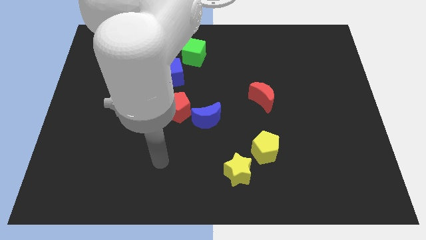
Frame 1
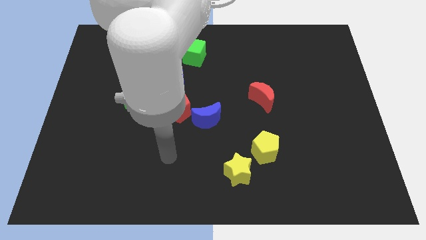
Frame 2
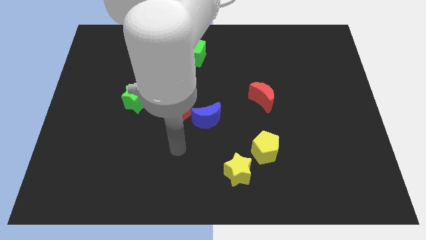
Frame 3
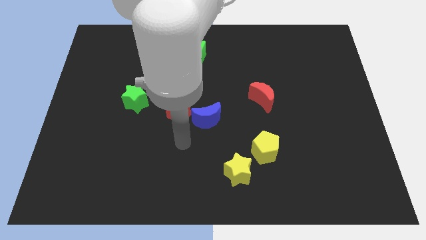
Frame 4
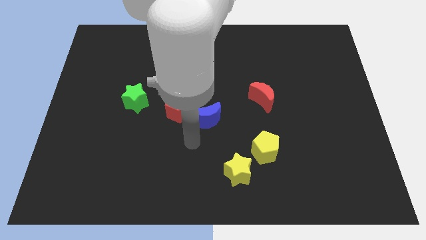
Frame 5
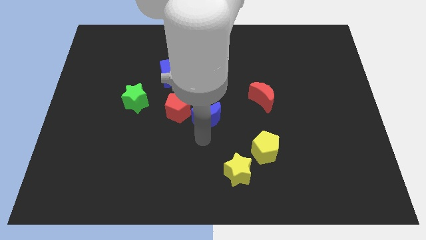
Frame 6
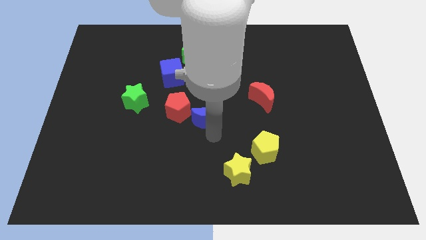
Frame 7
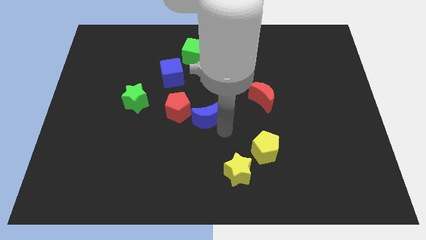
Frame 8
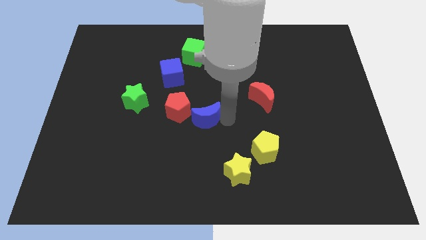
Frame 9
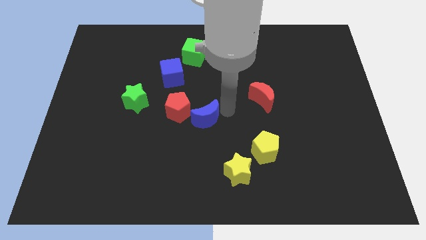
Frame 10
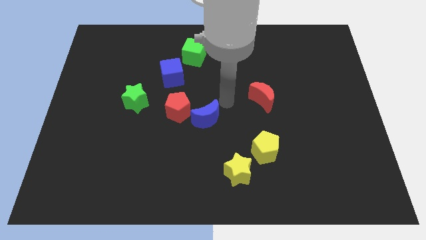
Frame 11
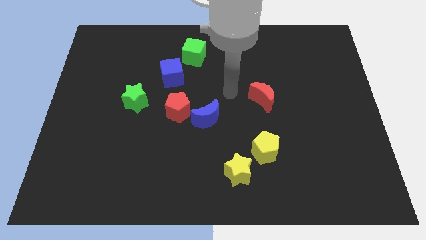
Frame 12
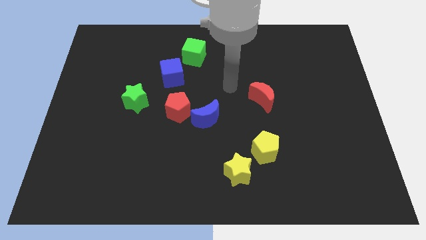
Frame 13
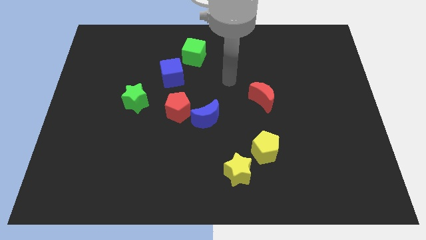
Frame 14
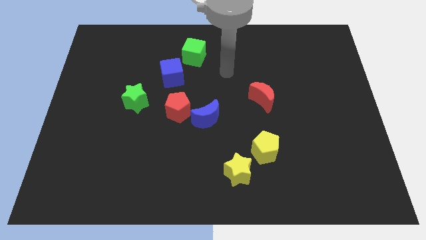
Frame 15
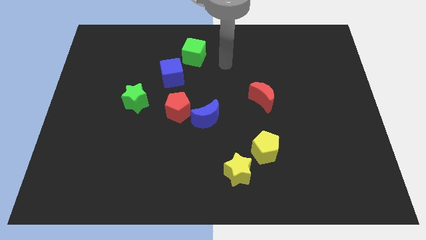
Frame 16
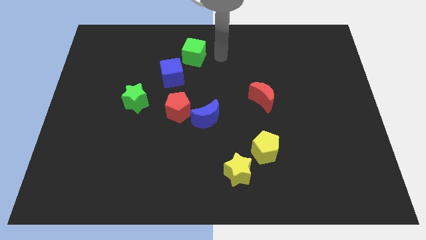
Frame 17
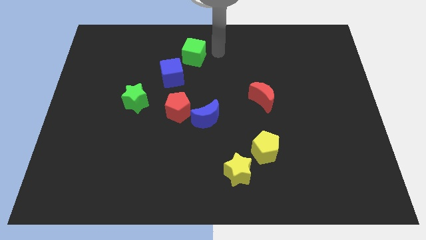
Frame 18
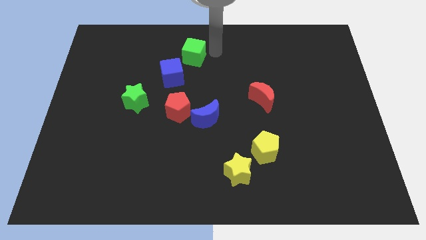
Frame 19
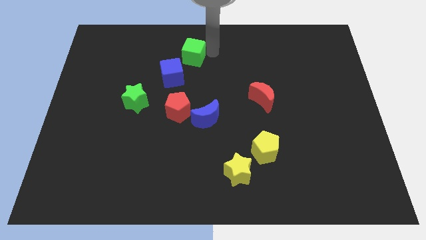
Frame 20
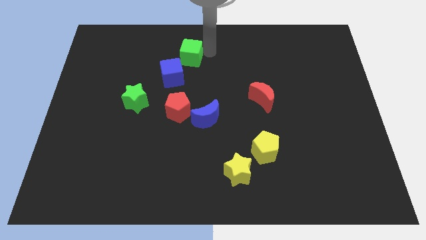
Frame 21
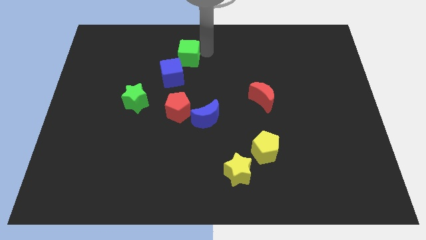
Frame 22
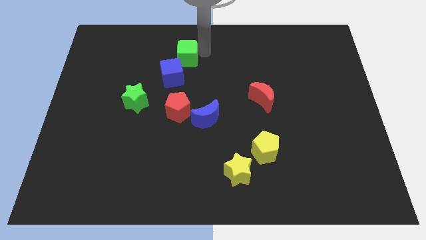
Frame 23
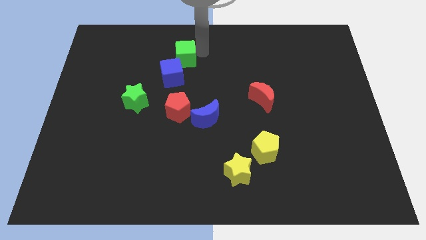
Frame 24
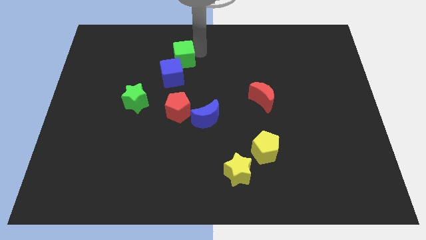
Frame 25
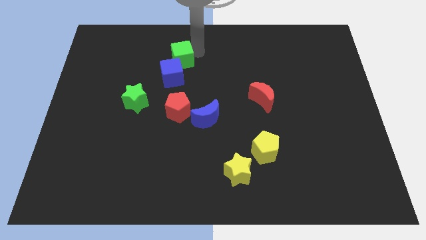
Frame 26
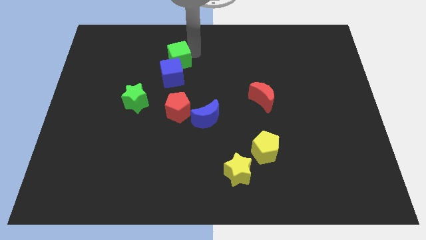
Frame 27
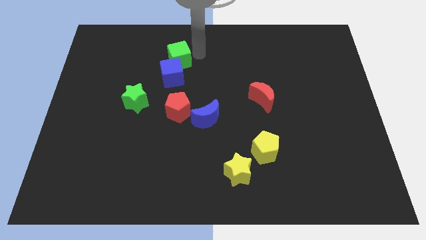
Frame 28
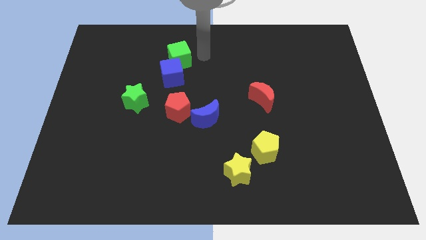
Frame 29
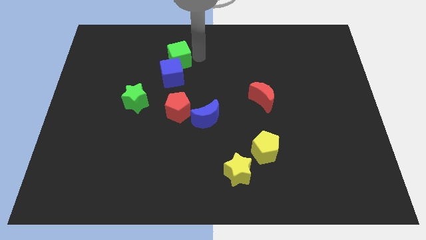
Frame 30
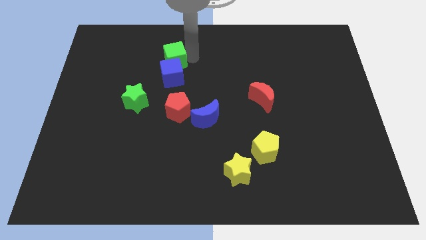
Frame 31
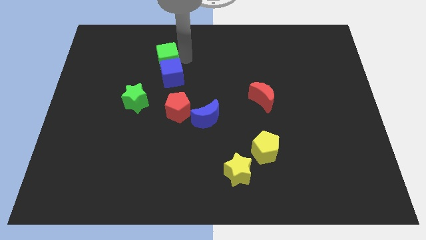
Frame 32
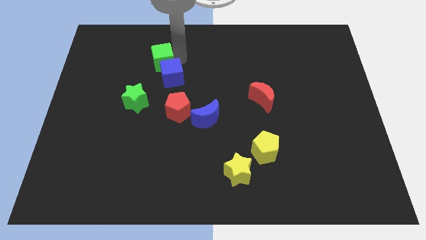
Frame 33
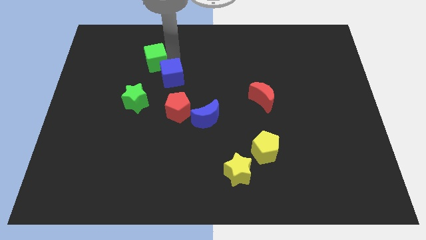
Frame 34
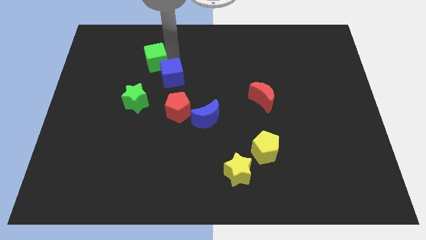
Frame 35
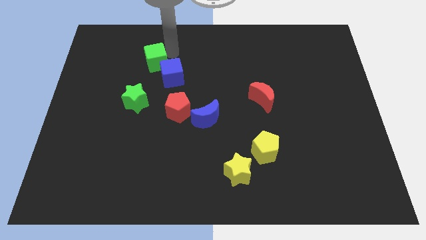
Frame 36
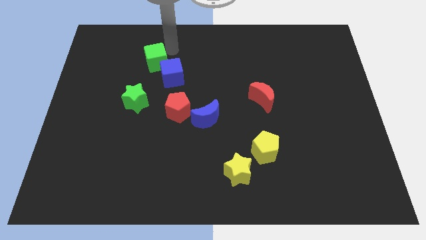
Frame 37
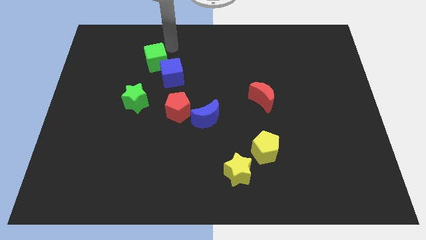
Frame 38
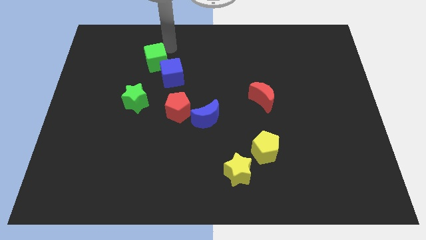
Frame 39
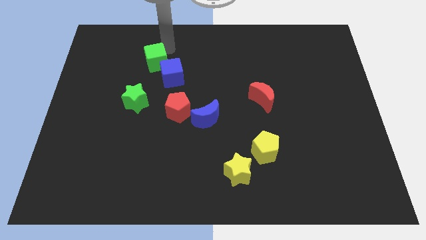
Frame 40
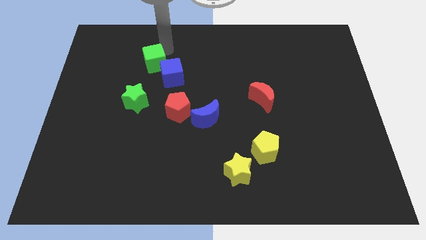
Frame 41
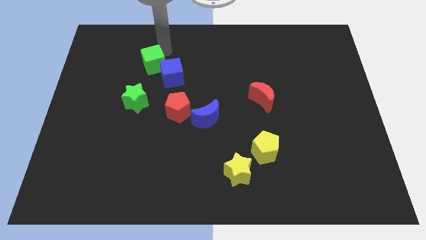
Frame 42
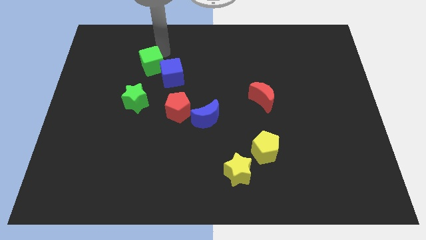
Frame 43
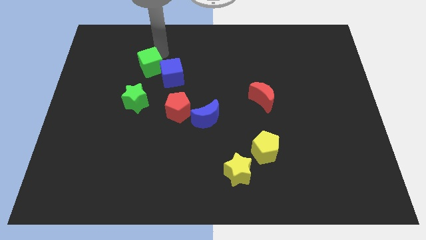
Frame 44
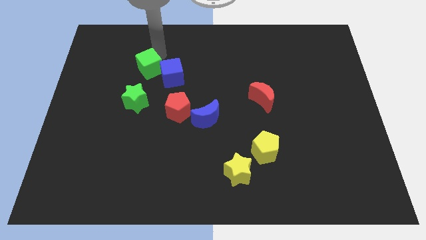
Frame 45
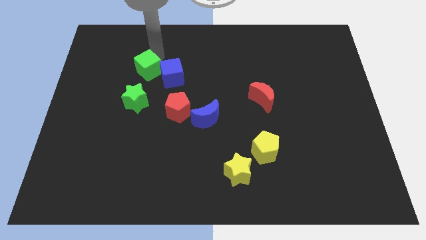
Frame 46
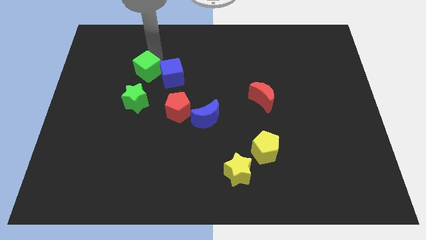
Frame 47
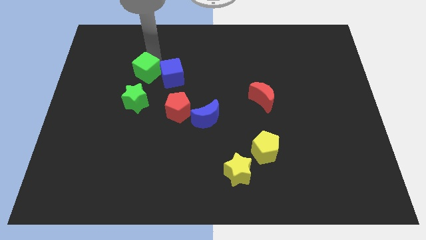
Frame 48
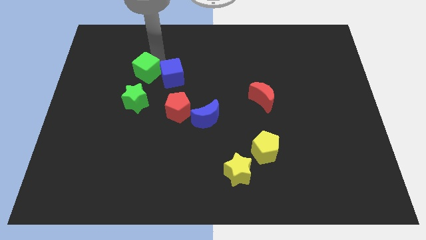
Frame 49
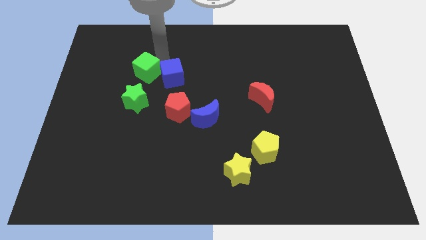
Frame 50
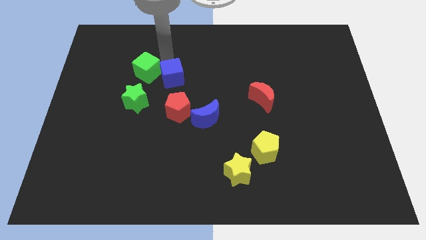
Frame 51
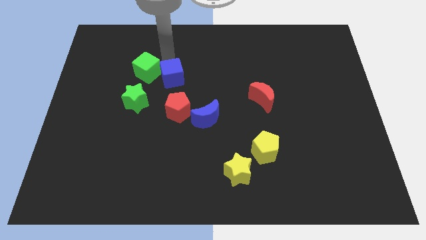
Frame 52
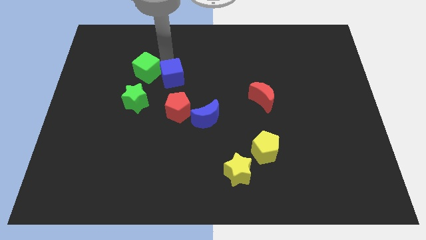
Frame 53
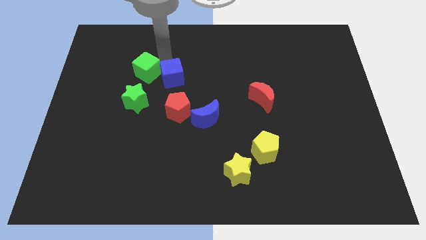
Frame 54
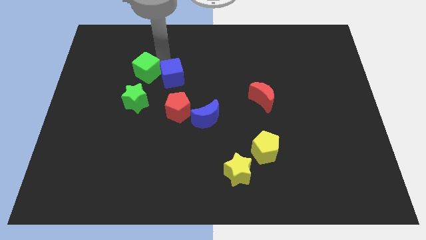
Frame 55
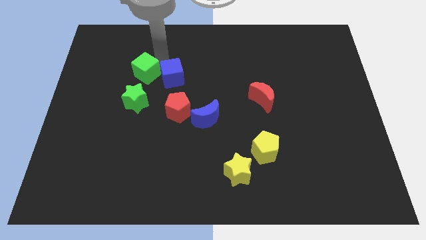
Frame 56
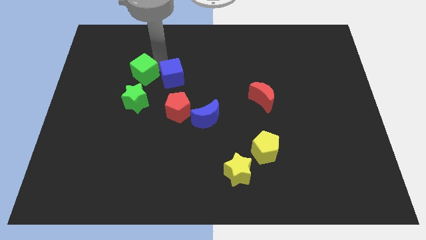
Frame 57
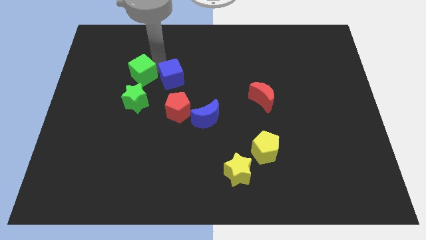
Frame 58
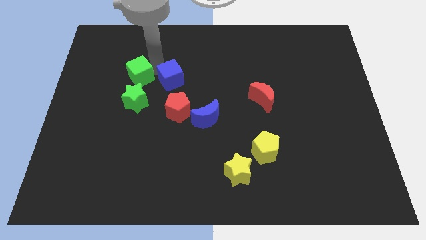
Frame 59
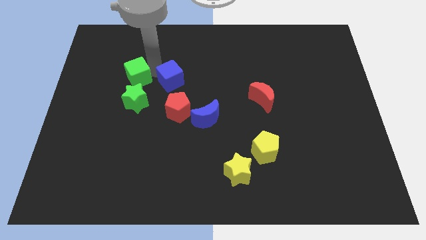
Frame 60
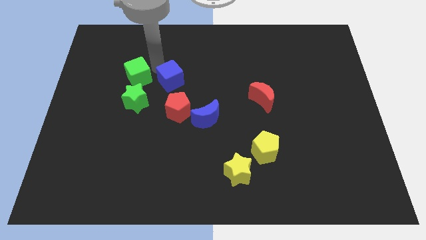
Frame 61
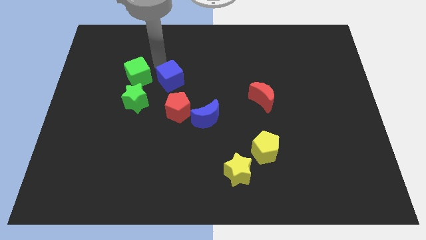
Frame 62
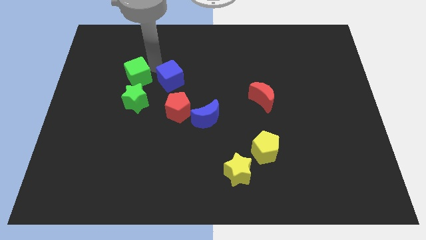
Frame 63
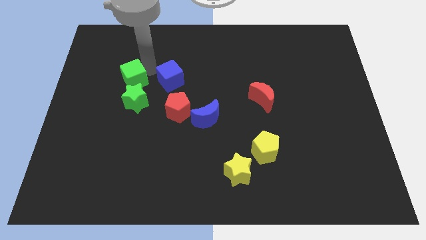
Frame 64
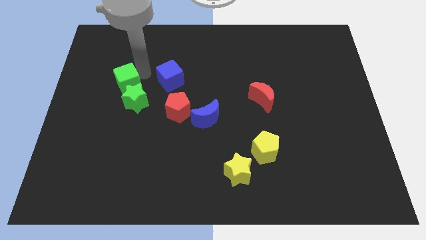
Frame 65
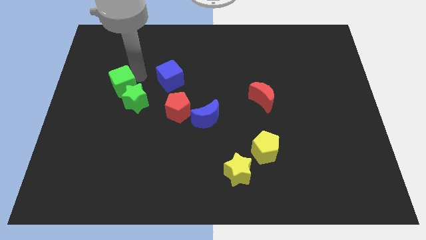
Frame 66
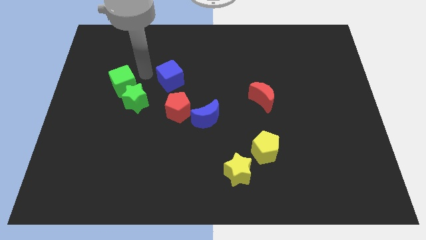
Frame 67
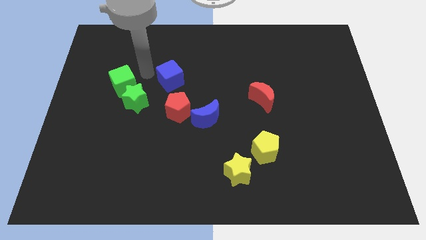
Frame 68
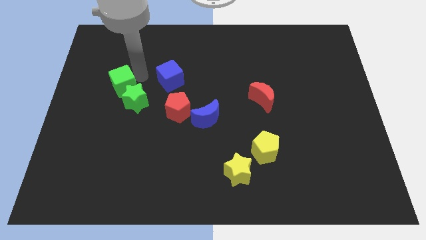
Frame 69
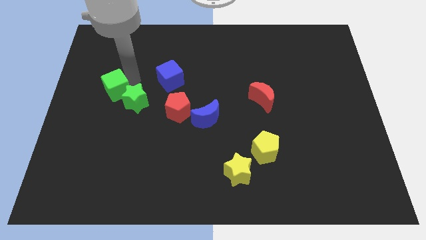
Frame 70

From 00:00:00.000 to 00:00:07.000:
slide the green cube to the left of the green star
